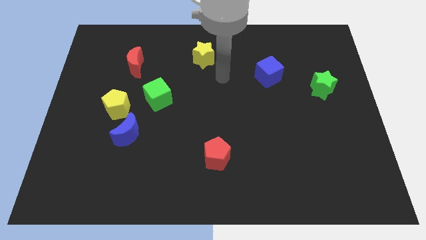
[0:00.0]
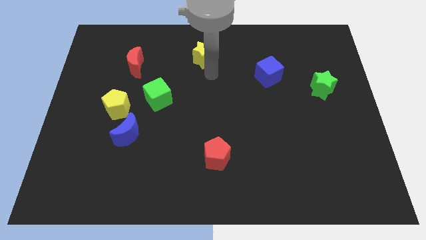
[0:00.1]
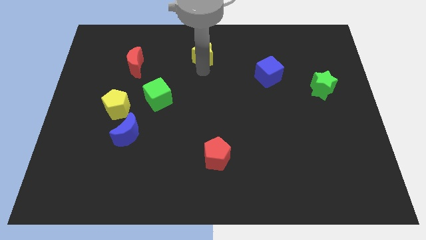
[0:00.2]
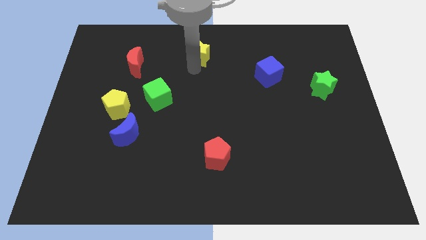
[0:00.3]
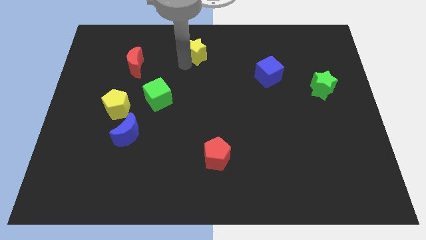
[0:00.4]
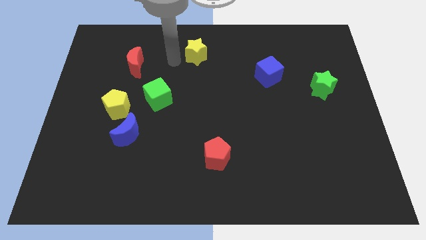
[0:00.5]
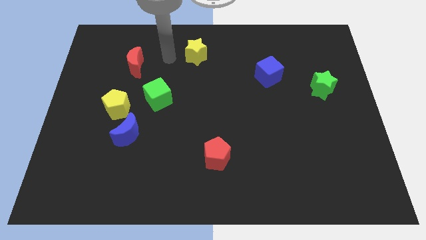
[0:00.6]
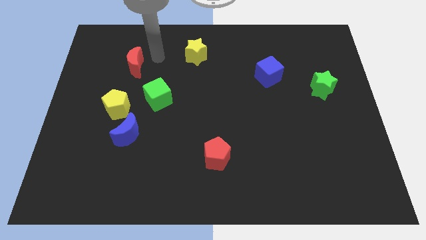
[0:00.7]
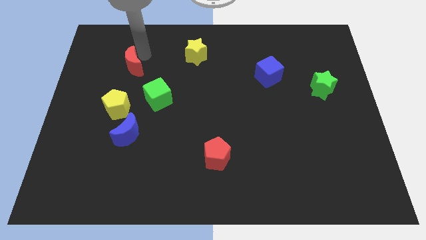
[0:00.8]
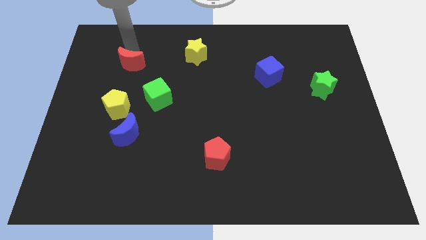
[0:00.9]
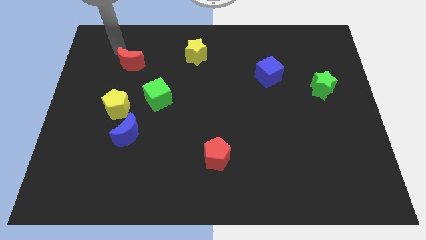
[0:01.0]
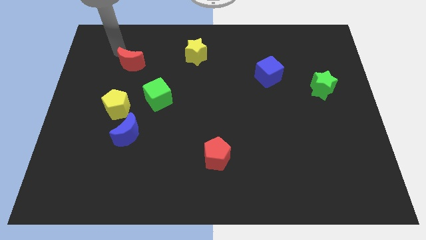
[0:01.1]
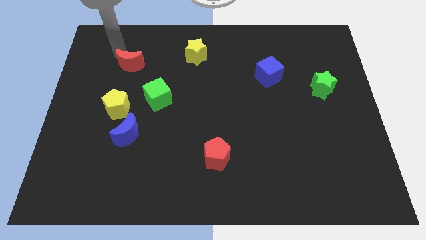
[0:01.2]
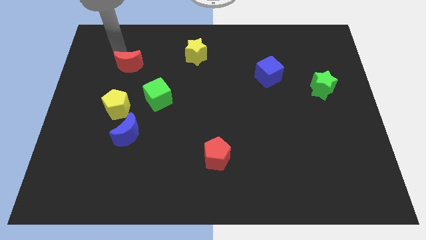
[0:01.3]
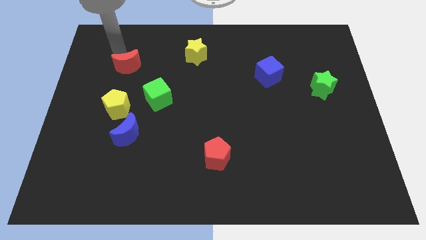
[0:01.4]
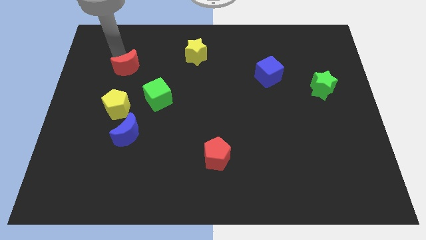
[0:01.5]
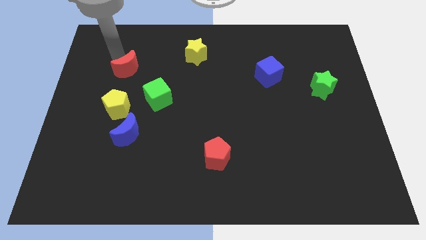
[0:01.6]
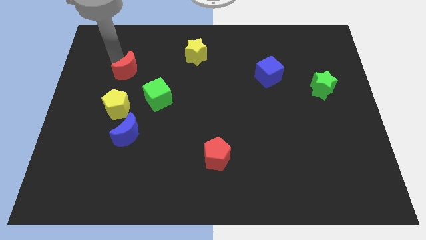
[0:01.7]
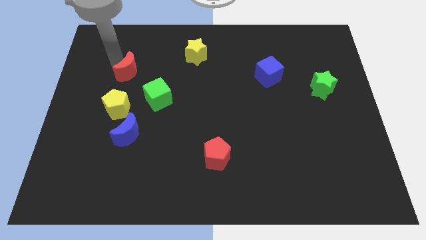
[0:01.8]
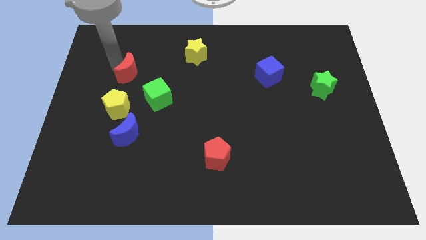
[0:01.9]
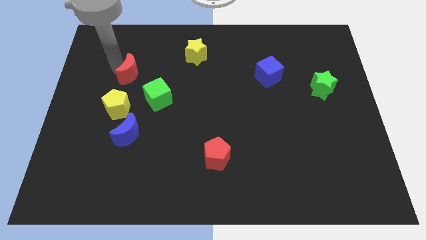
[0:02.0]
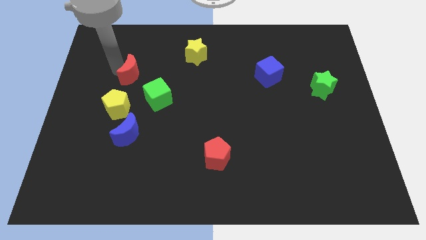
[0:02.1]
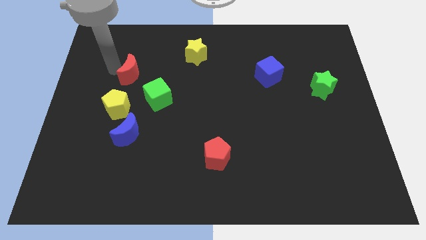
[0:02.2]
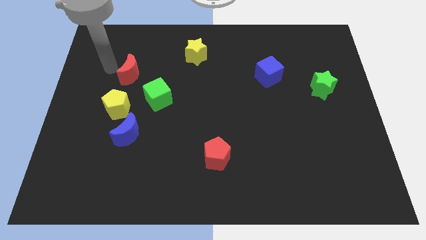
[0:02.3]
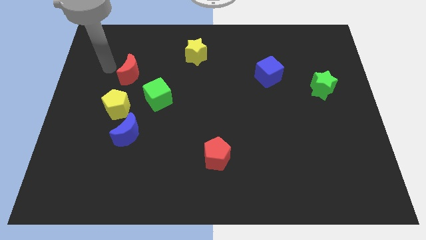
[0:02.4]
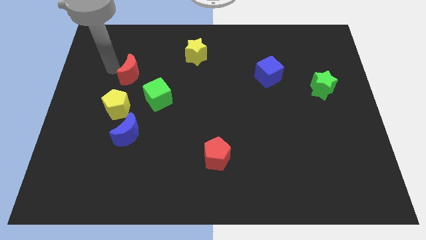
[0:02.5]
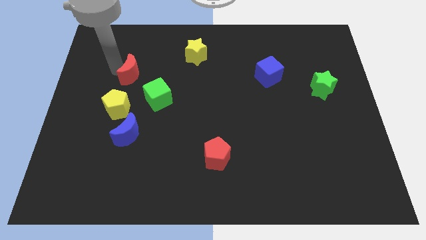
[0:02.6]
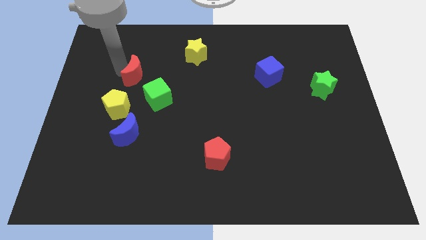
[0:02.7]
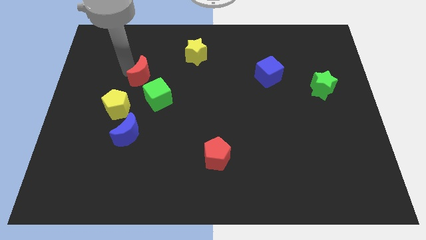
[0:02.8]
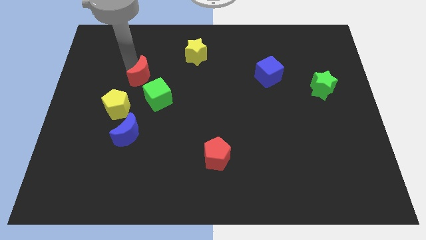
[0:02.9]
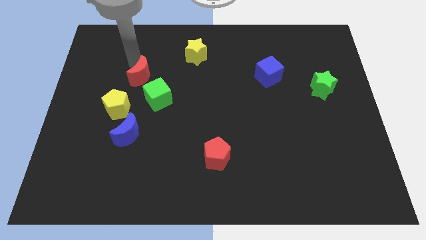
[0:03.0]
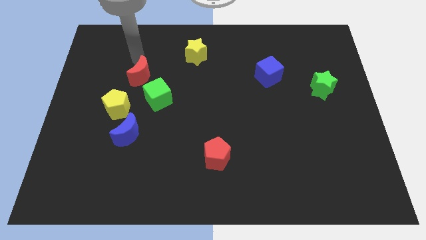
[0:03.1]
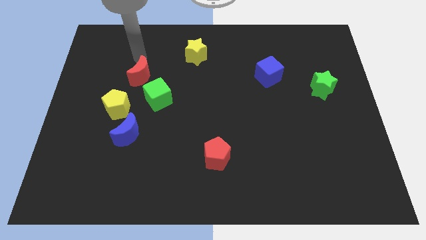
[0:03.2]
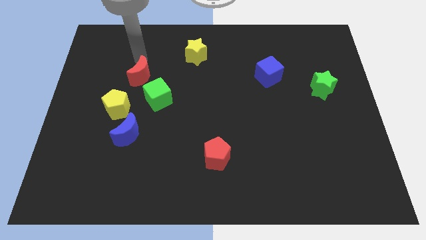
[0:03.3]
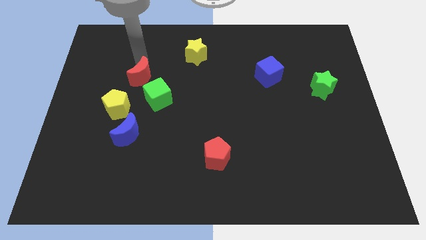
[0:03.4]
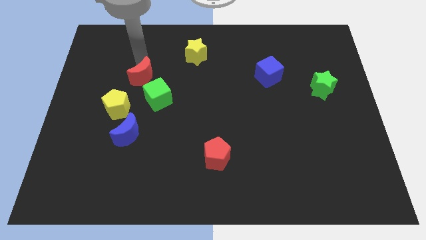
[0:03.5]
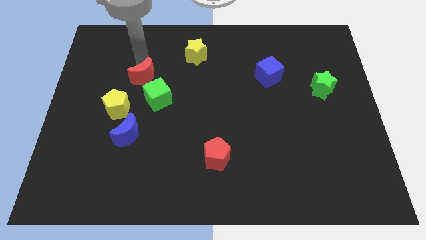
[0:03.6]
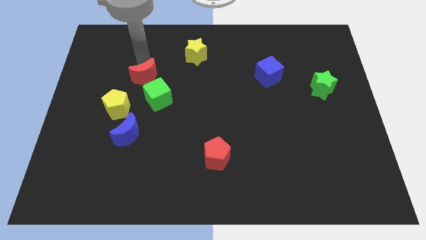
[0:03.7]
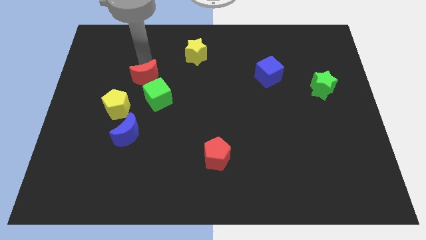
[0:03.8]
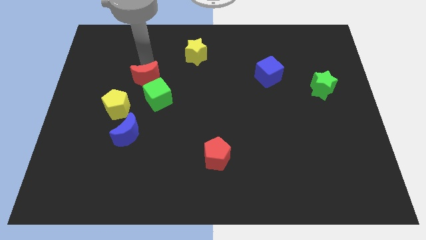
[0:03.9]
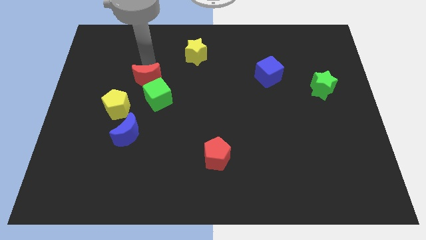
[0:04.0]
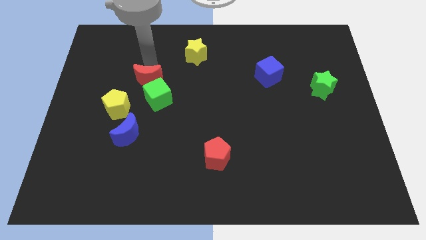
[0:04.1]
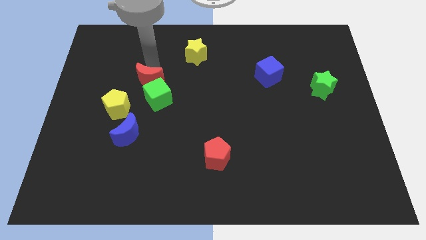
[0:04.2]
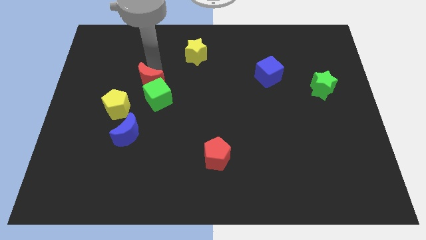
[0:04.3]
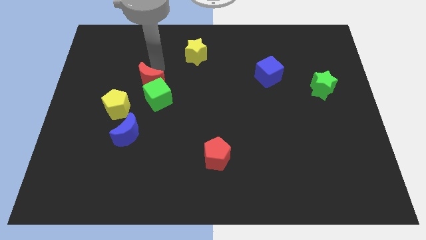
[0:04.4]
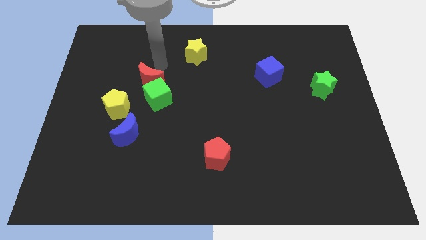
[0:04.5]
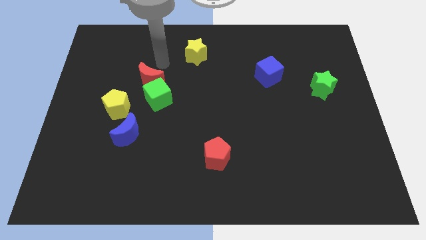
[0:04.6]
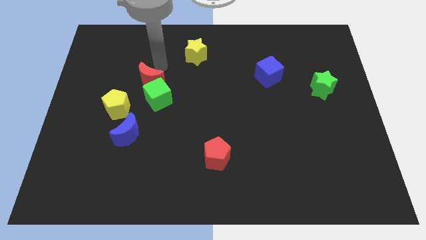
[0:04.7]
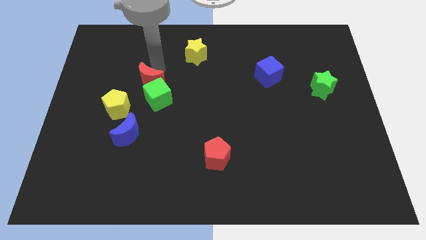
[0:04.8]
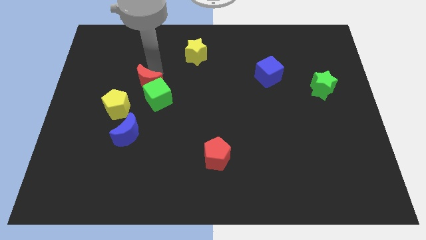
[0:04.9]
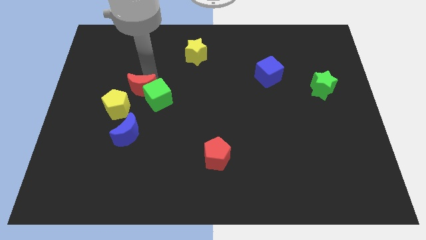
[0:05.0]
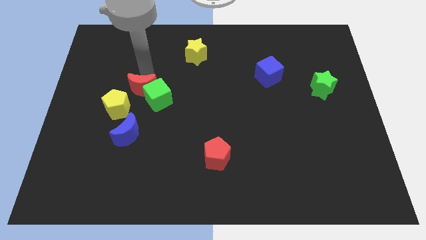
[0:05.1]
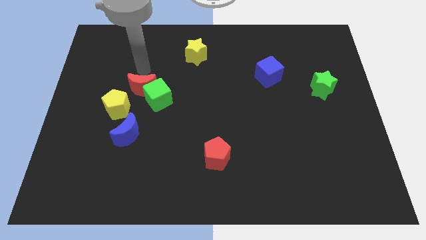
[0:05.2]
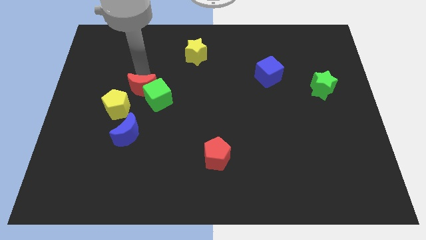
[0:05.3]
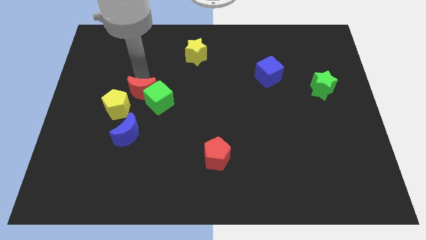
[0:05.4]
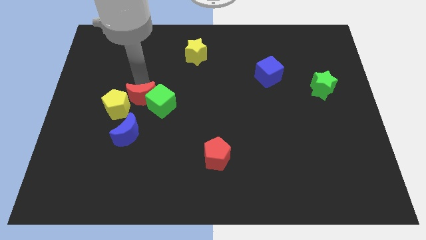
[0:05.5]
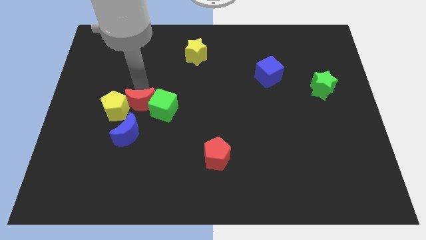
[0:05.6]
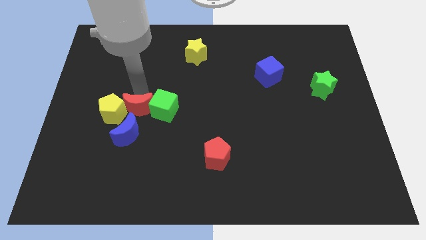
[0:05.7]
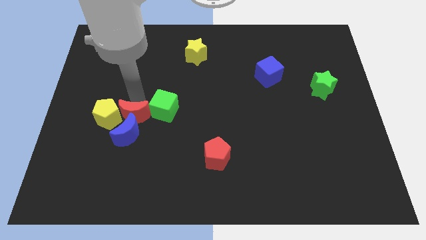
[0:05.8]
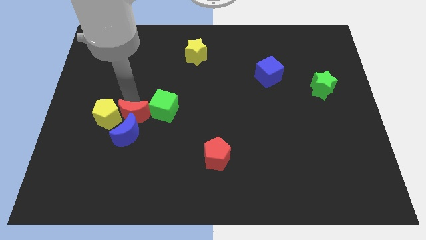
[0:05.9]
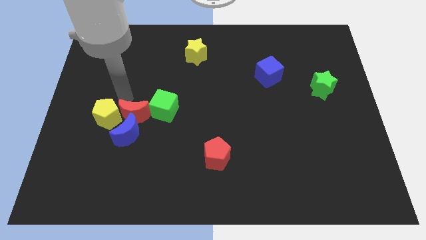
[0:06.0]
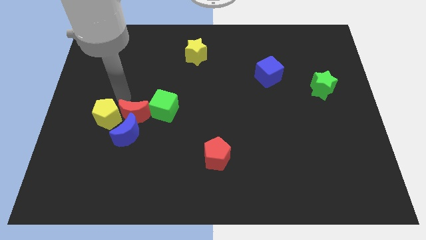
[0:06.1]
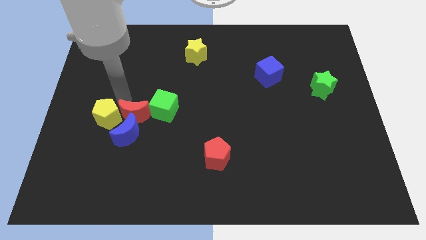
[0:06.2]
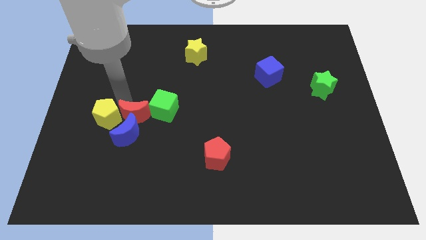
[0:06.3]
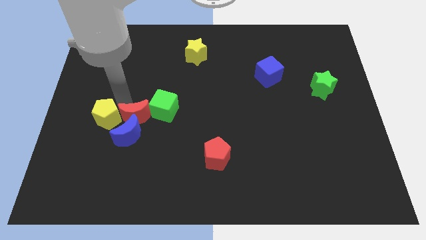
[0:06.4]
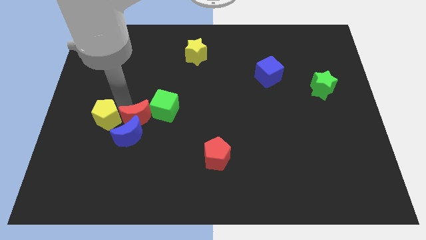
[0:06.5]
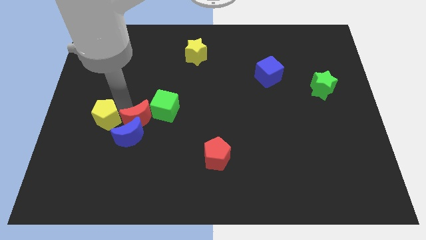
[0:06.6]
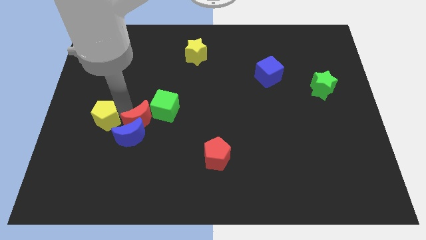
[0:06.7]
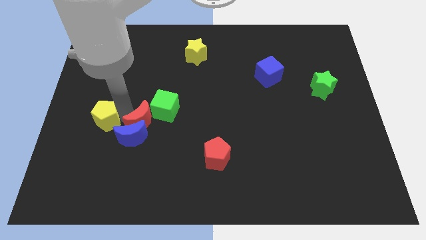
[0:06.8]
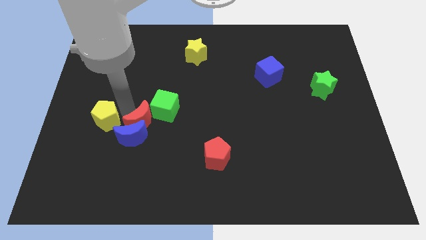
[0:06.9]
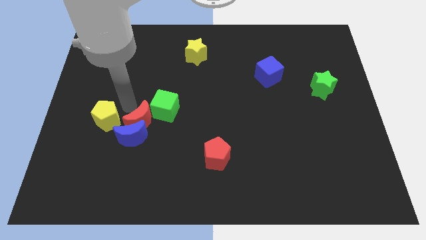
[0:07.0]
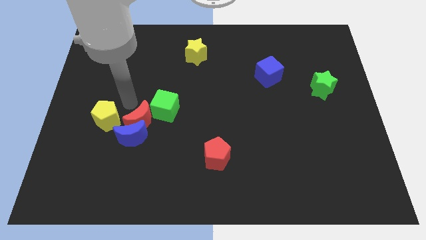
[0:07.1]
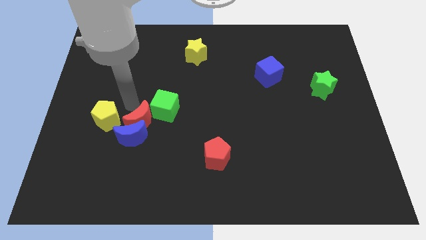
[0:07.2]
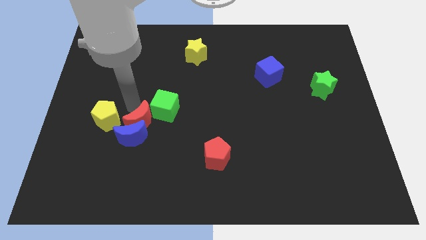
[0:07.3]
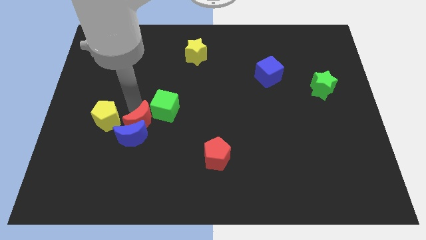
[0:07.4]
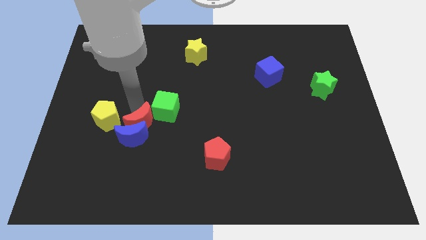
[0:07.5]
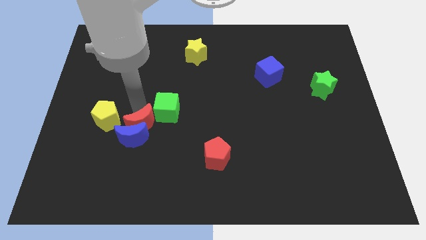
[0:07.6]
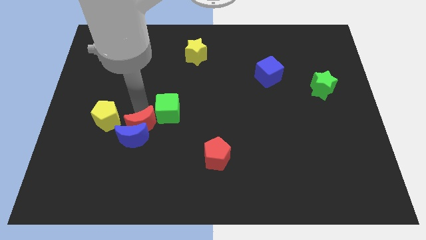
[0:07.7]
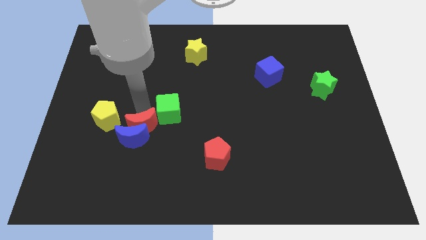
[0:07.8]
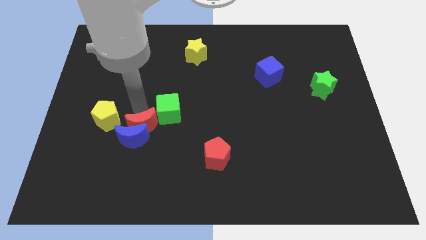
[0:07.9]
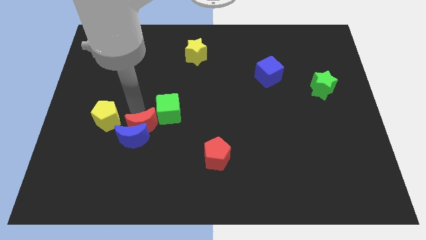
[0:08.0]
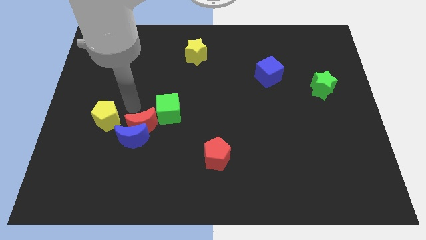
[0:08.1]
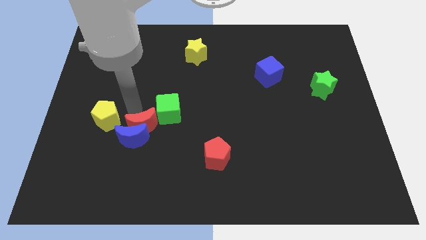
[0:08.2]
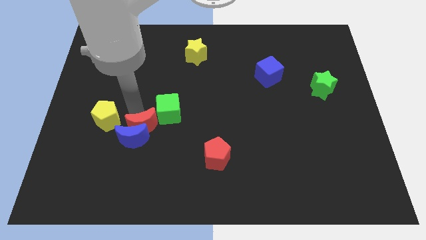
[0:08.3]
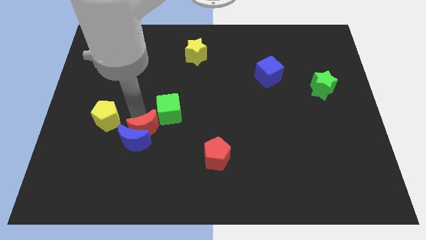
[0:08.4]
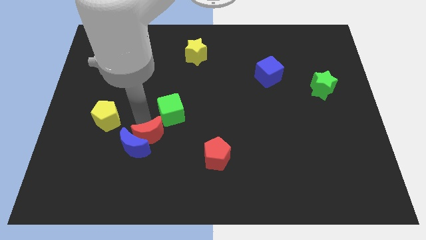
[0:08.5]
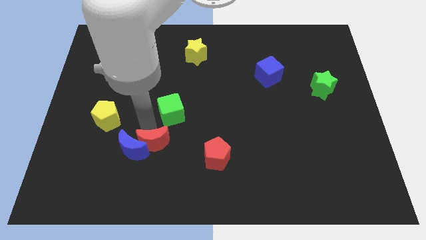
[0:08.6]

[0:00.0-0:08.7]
put the red moon diagonally down and to the right of the blue moon
